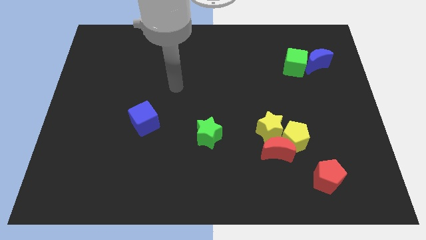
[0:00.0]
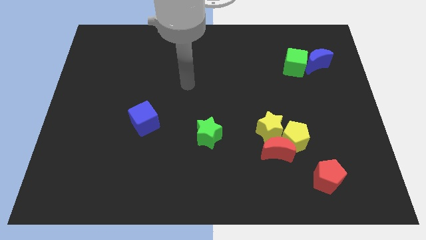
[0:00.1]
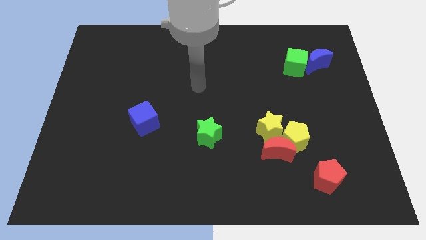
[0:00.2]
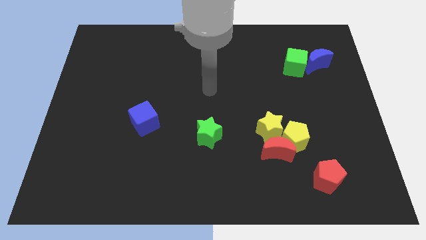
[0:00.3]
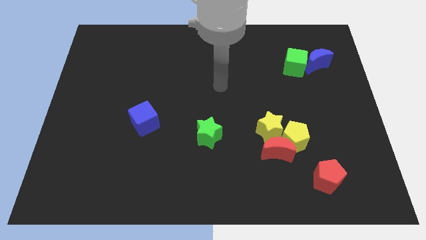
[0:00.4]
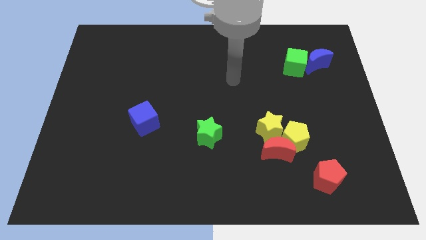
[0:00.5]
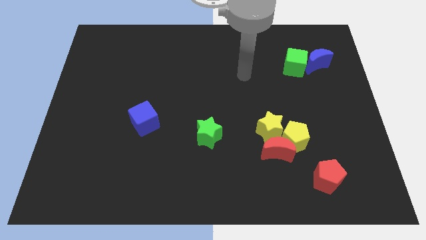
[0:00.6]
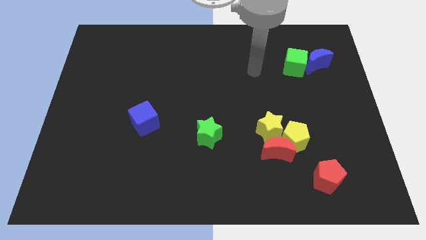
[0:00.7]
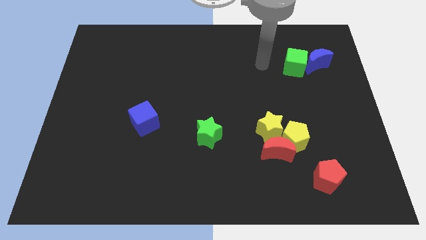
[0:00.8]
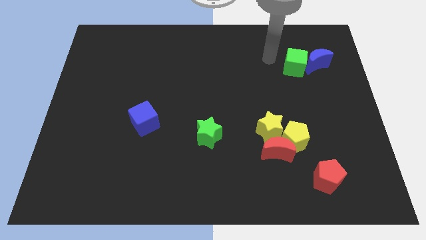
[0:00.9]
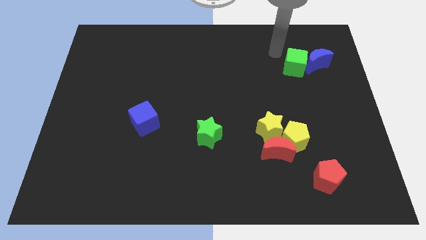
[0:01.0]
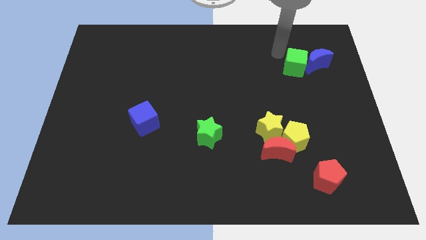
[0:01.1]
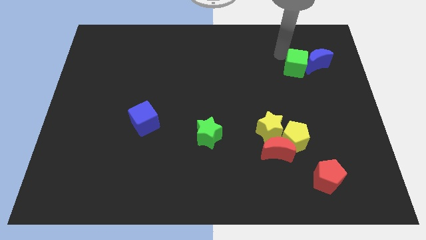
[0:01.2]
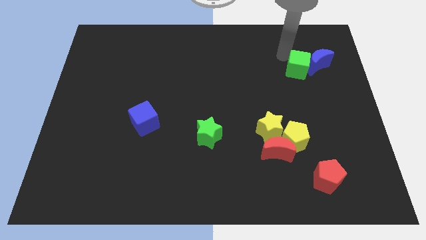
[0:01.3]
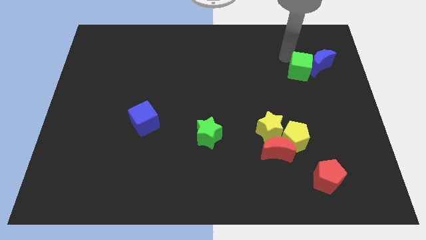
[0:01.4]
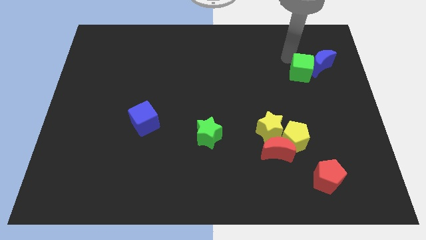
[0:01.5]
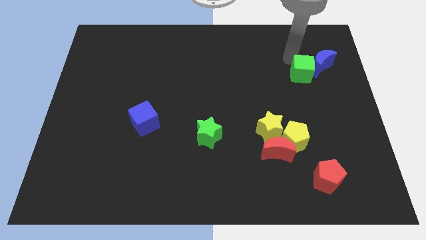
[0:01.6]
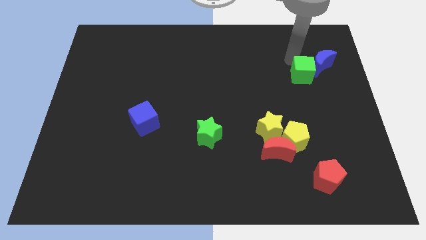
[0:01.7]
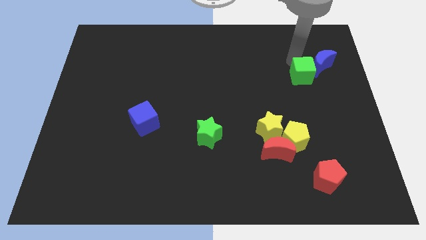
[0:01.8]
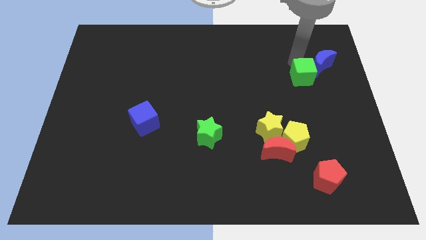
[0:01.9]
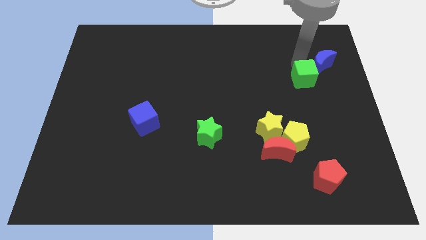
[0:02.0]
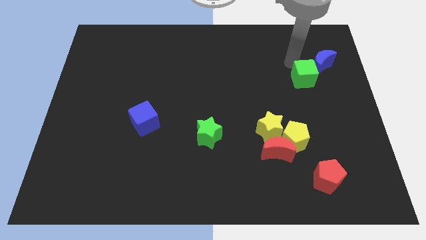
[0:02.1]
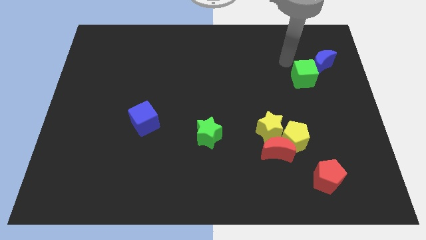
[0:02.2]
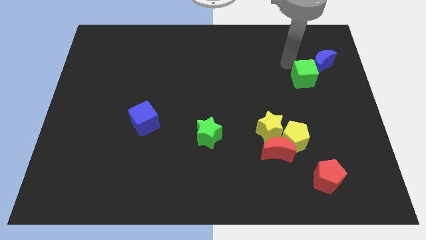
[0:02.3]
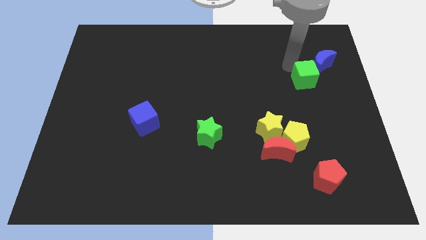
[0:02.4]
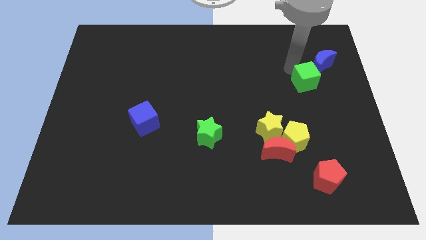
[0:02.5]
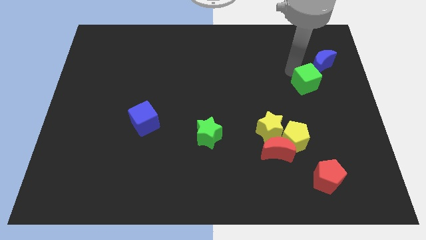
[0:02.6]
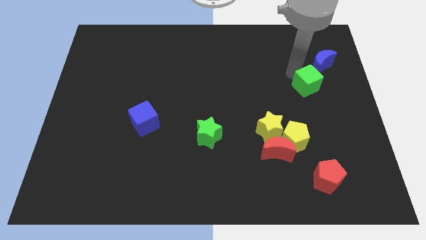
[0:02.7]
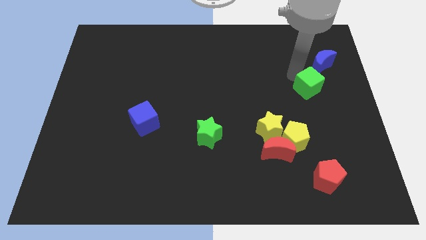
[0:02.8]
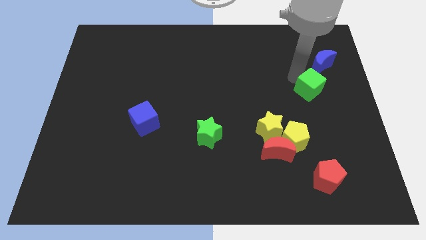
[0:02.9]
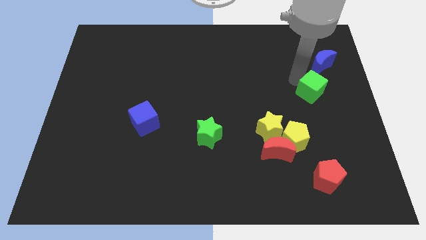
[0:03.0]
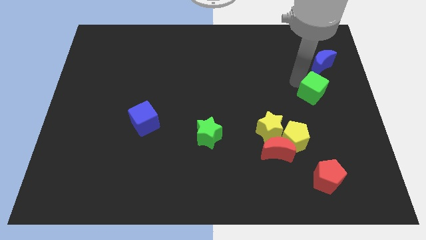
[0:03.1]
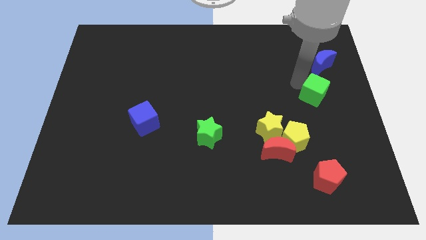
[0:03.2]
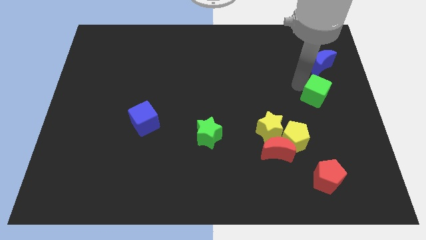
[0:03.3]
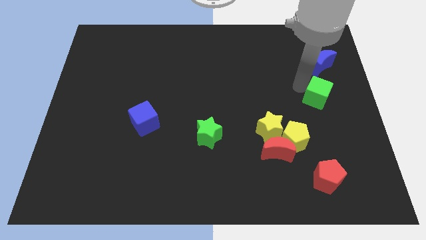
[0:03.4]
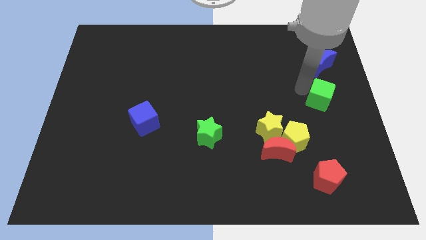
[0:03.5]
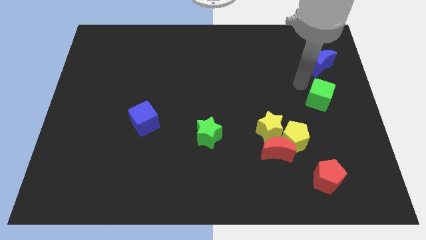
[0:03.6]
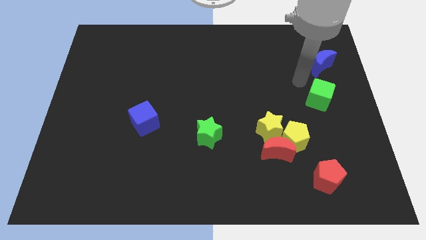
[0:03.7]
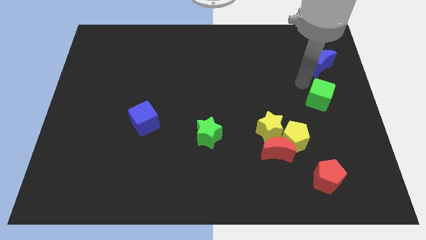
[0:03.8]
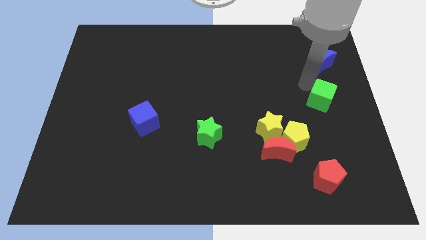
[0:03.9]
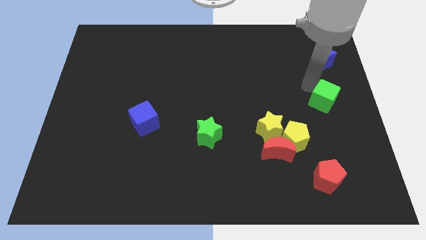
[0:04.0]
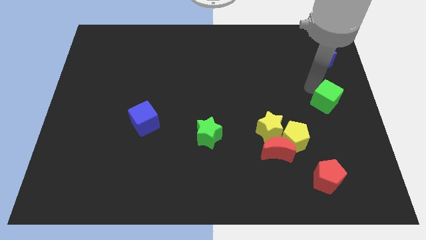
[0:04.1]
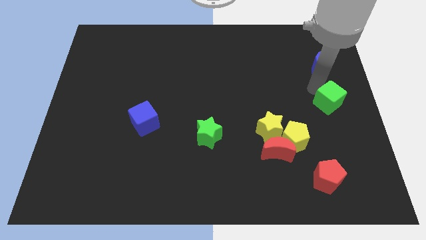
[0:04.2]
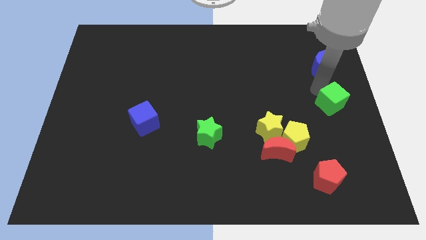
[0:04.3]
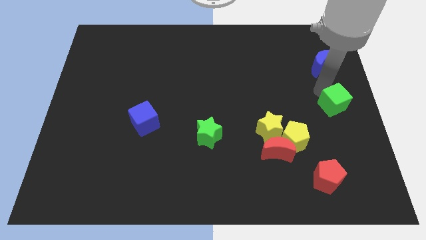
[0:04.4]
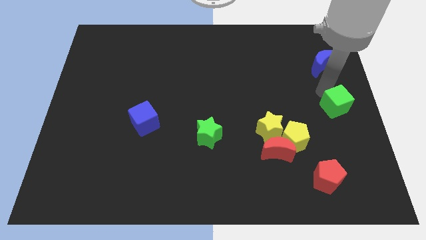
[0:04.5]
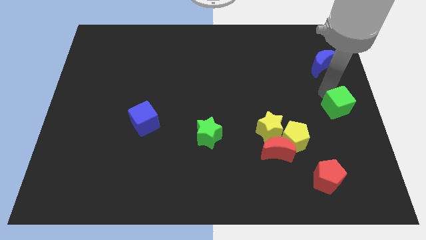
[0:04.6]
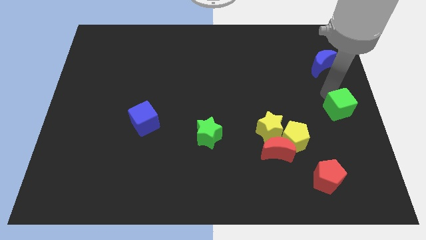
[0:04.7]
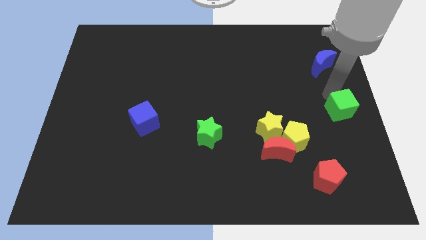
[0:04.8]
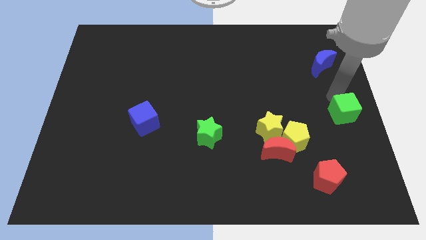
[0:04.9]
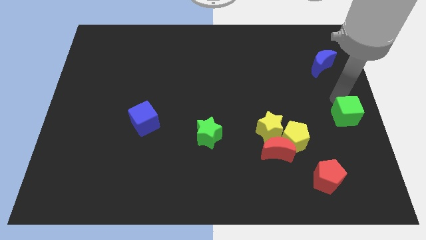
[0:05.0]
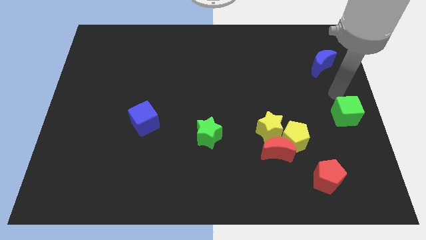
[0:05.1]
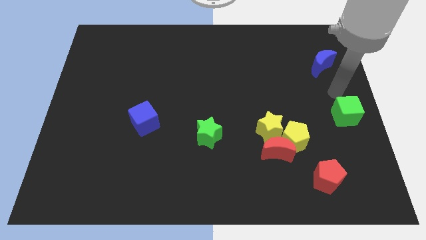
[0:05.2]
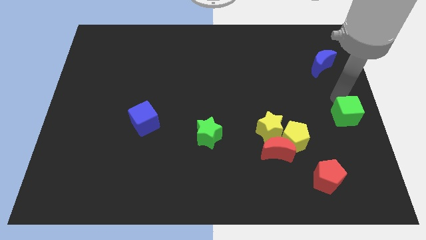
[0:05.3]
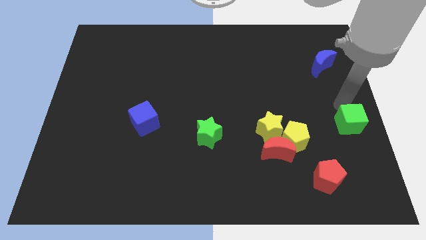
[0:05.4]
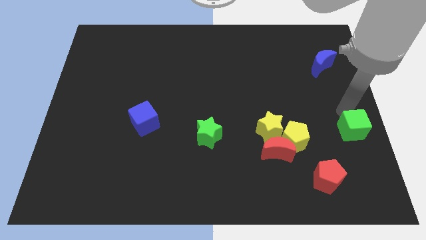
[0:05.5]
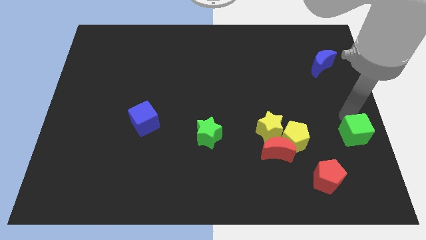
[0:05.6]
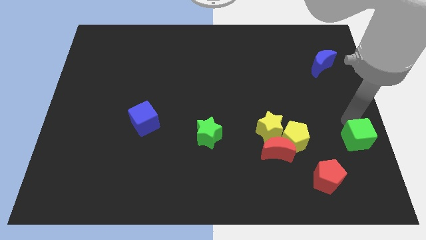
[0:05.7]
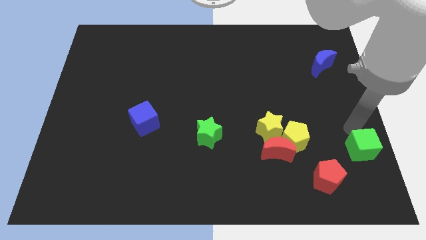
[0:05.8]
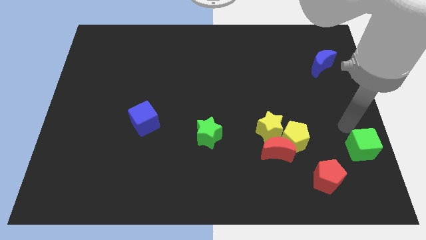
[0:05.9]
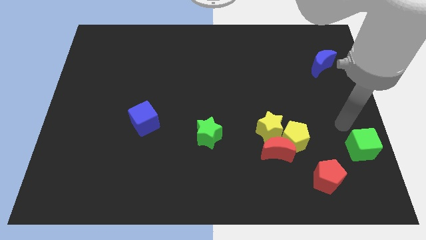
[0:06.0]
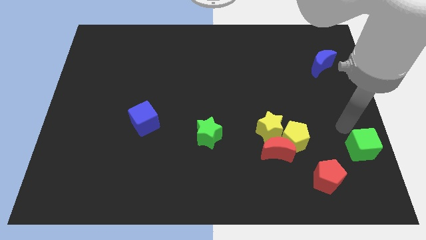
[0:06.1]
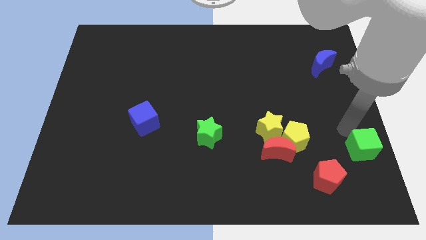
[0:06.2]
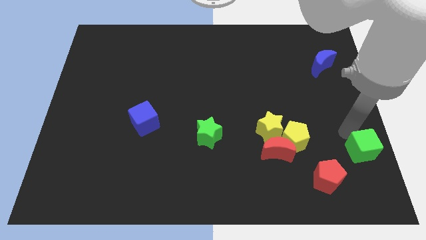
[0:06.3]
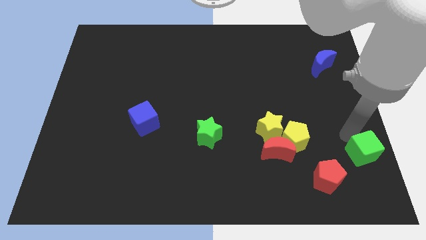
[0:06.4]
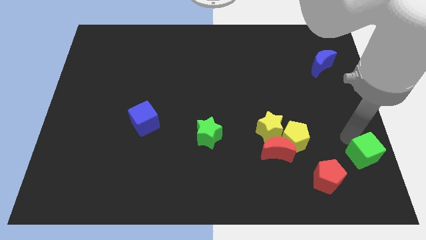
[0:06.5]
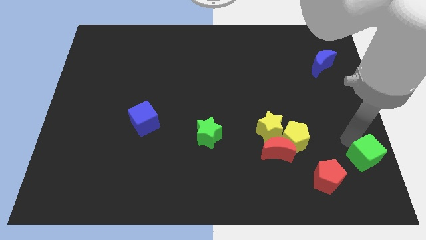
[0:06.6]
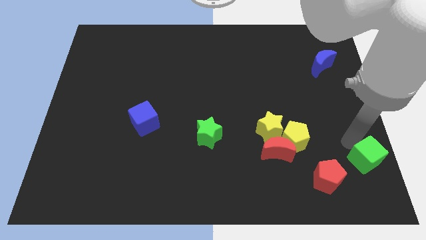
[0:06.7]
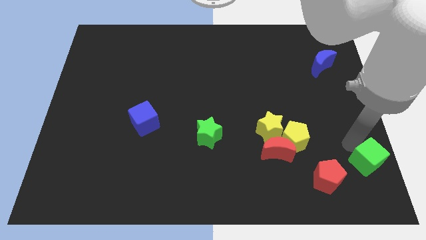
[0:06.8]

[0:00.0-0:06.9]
push the green cube to the bottom right
